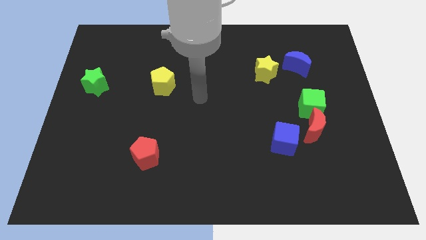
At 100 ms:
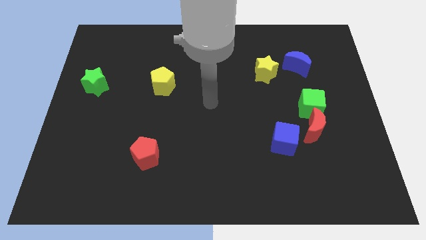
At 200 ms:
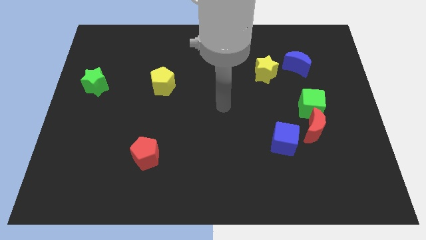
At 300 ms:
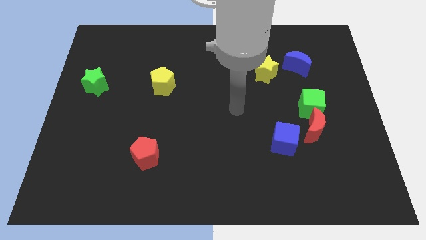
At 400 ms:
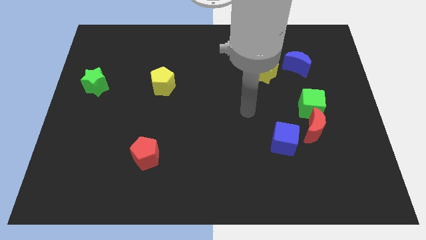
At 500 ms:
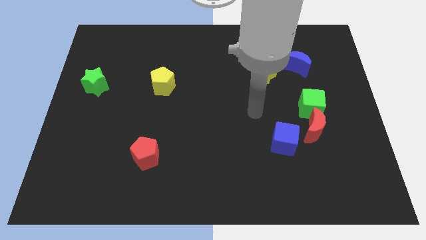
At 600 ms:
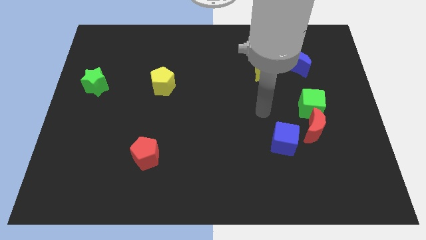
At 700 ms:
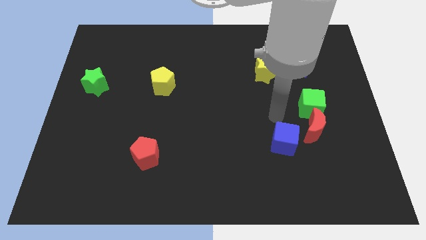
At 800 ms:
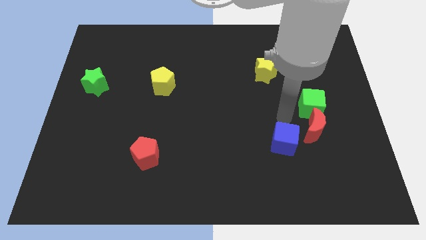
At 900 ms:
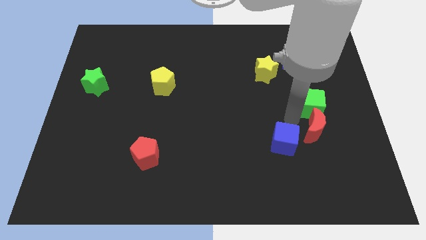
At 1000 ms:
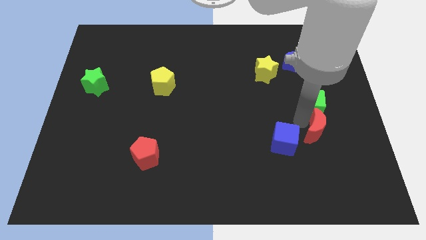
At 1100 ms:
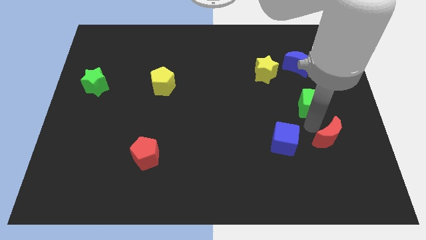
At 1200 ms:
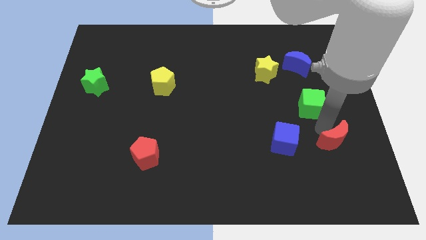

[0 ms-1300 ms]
move the green cube away from the red moon

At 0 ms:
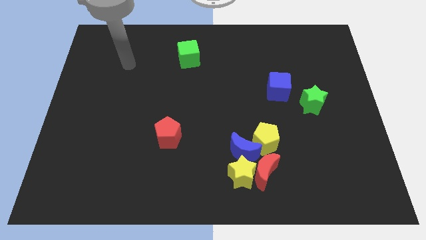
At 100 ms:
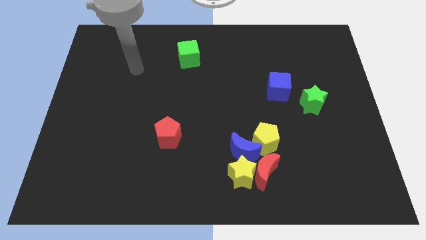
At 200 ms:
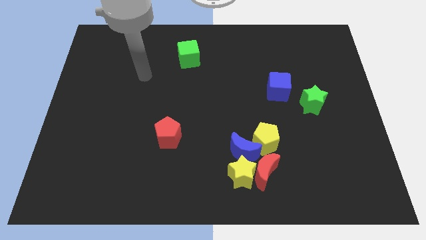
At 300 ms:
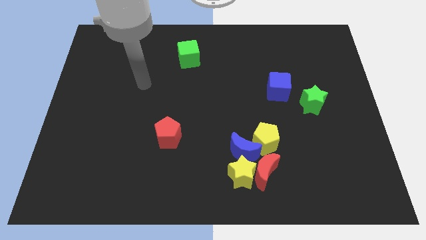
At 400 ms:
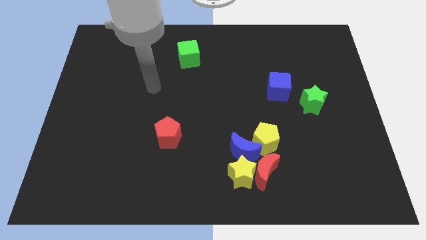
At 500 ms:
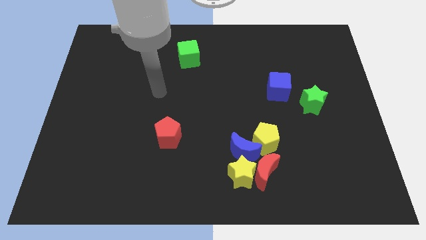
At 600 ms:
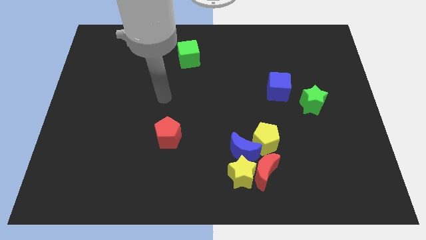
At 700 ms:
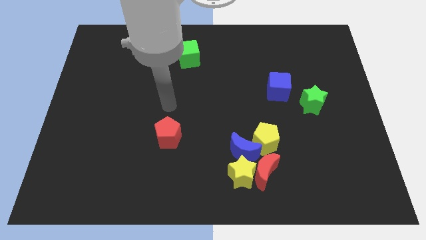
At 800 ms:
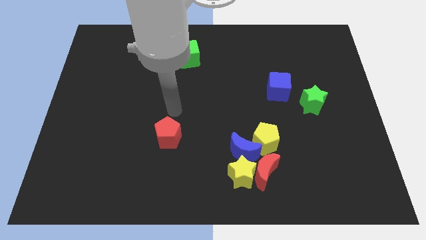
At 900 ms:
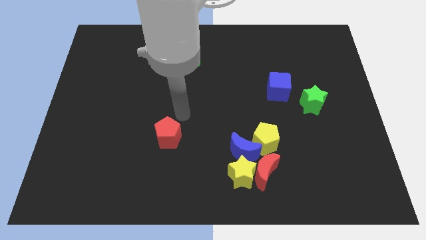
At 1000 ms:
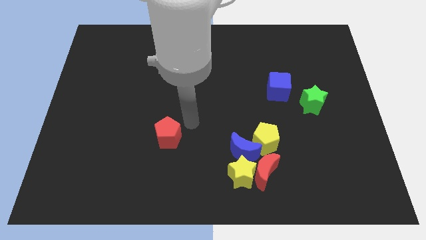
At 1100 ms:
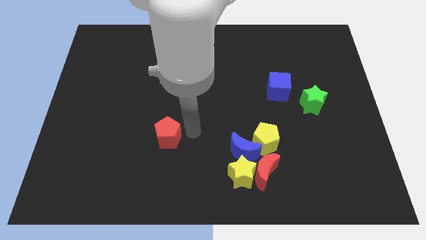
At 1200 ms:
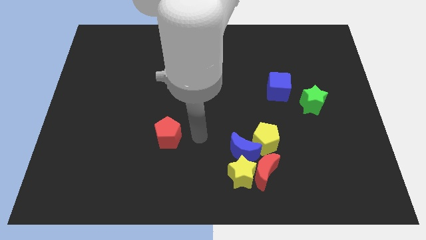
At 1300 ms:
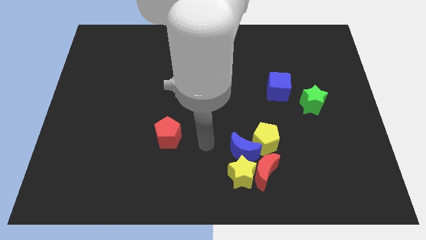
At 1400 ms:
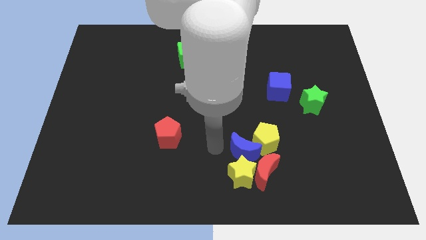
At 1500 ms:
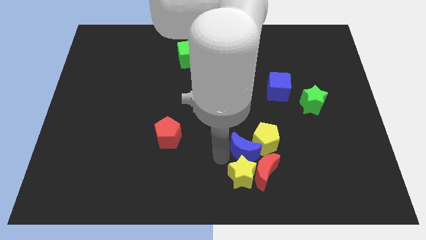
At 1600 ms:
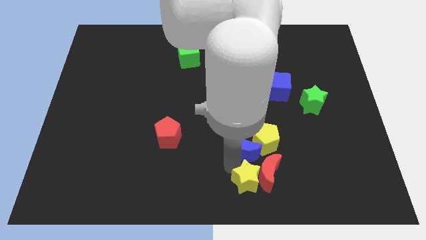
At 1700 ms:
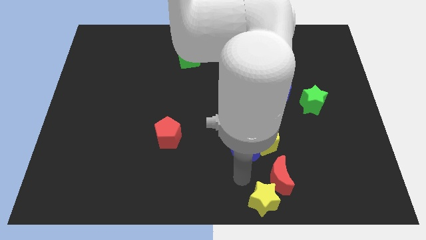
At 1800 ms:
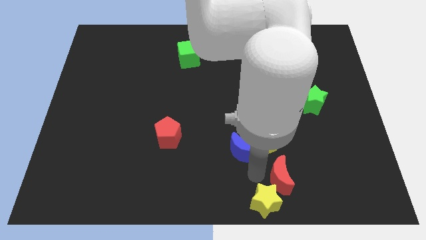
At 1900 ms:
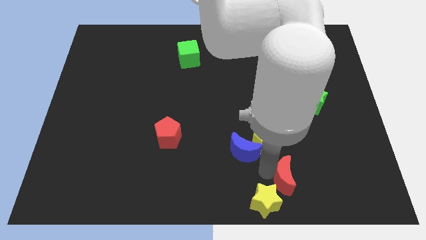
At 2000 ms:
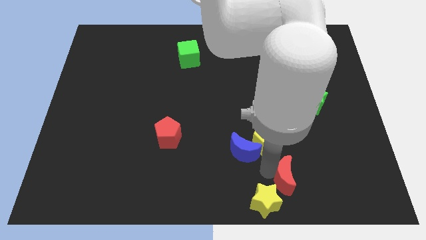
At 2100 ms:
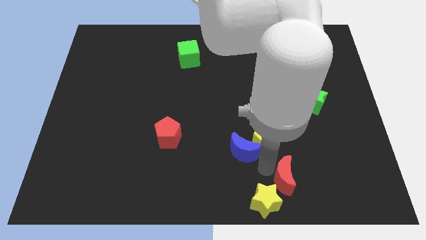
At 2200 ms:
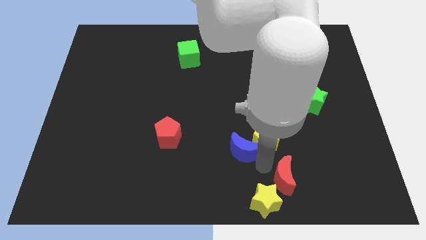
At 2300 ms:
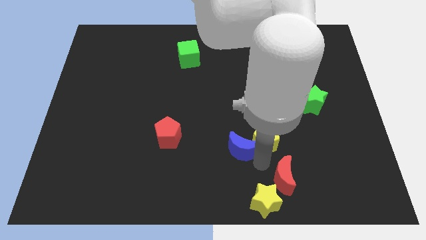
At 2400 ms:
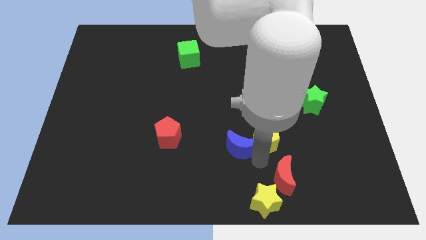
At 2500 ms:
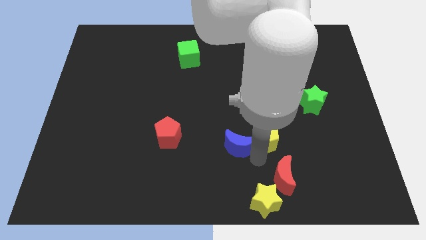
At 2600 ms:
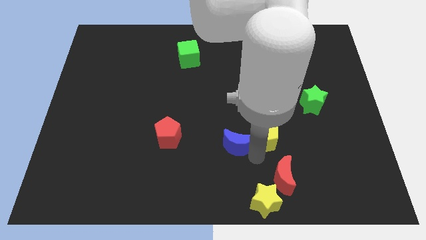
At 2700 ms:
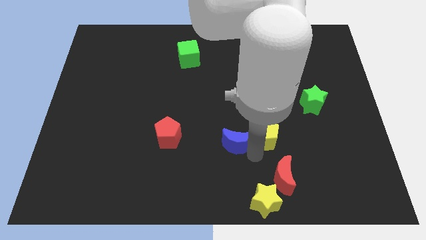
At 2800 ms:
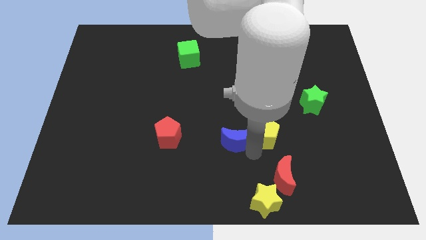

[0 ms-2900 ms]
move the blue moon away from the yellow pentagon, yellow star, and red moon

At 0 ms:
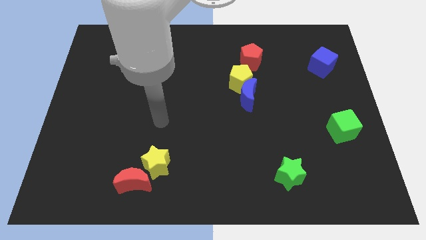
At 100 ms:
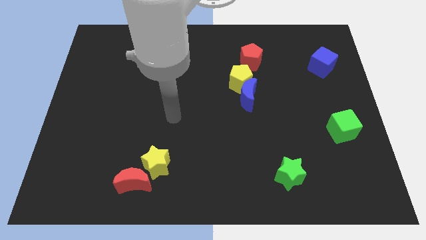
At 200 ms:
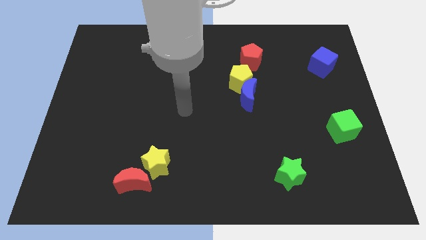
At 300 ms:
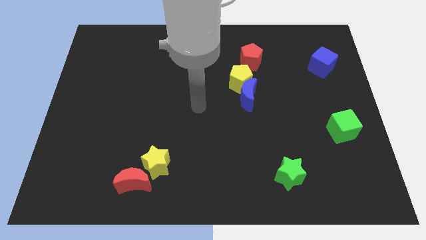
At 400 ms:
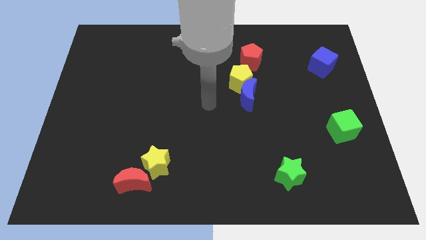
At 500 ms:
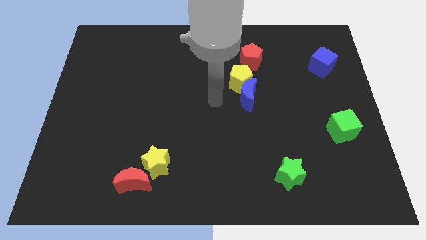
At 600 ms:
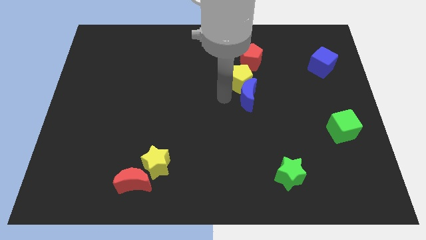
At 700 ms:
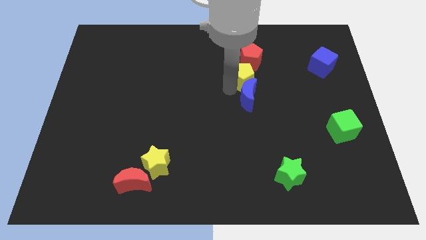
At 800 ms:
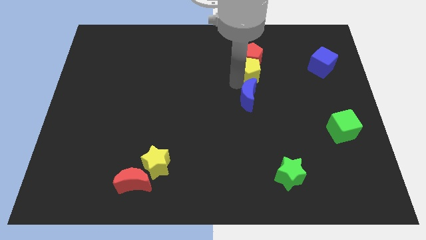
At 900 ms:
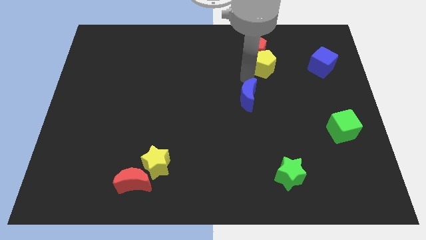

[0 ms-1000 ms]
pull the blue moon apart from the yellow pentagon

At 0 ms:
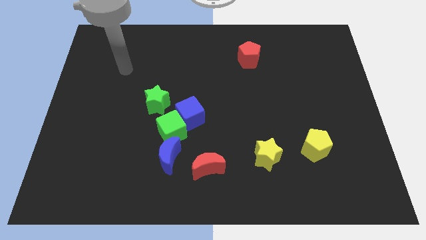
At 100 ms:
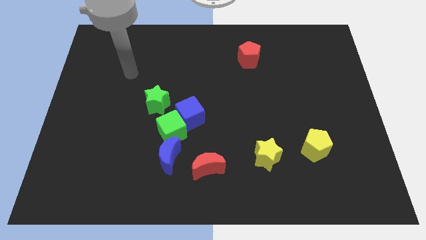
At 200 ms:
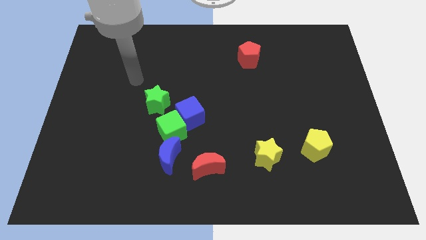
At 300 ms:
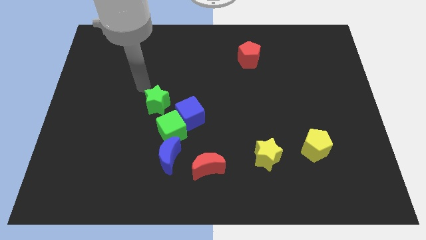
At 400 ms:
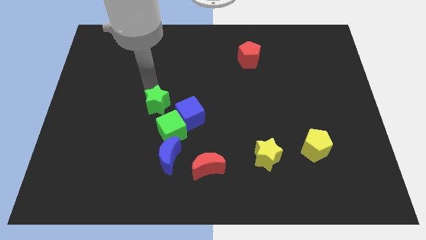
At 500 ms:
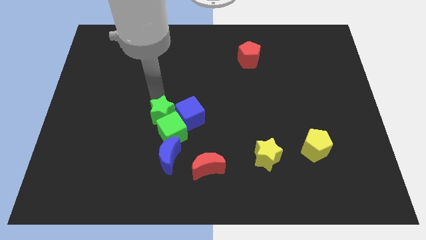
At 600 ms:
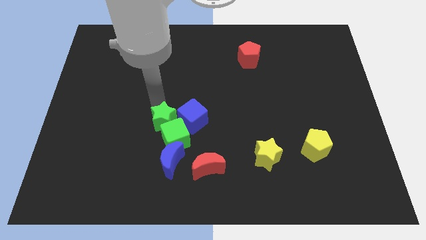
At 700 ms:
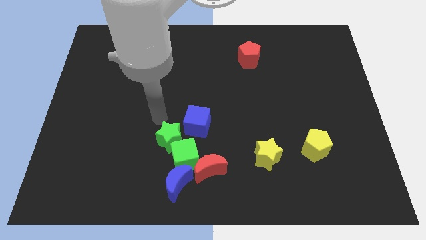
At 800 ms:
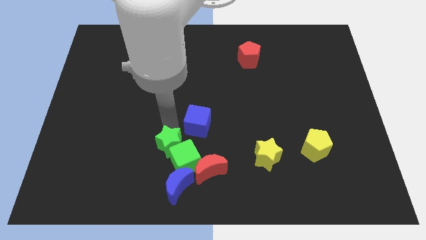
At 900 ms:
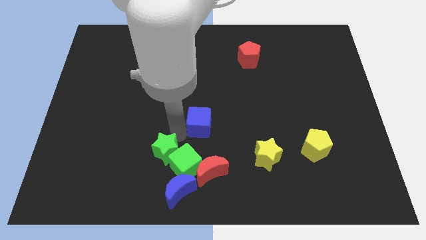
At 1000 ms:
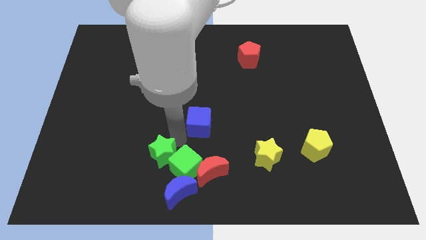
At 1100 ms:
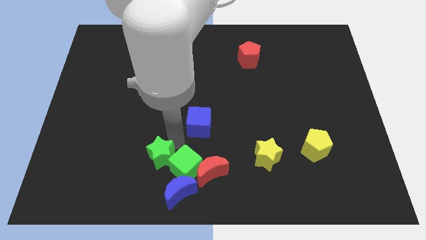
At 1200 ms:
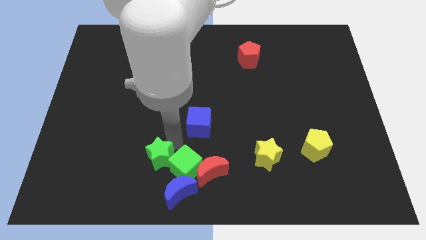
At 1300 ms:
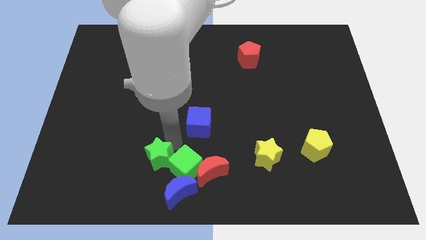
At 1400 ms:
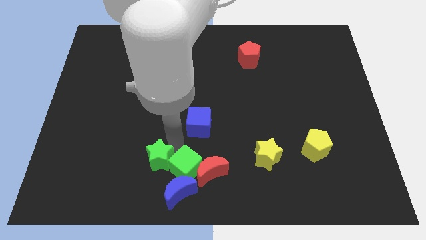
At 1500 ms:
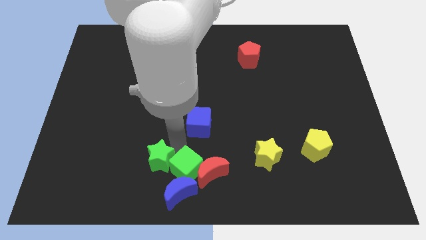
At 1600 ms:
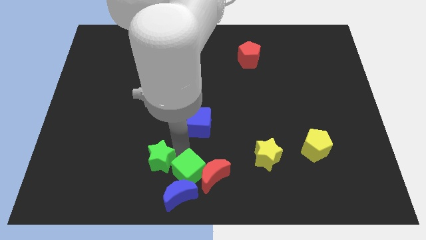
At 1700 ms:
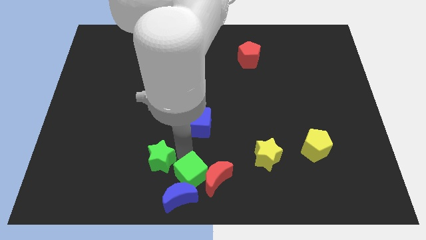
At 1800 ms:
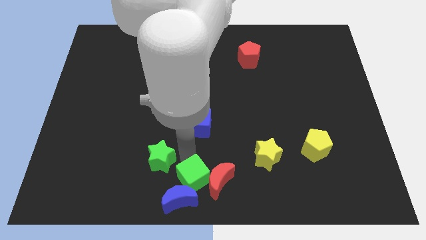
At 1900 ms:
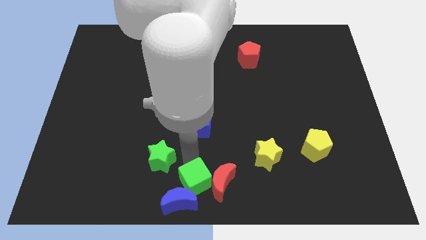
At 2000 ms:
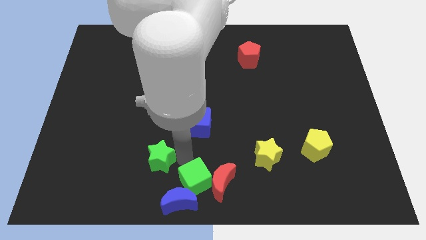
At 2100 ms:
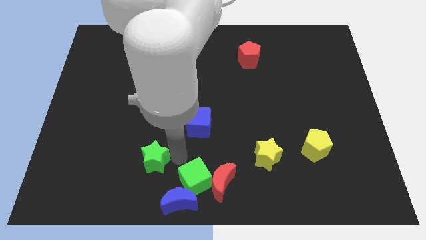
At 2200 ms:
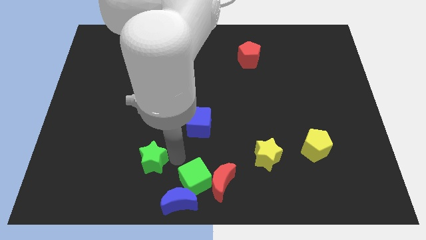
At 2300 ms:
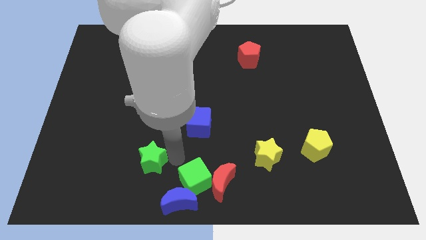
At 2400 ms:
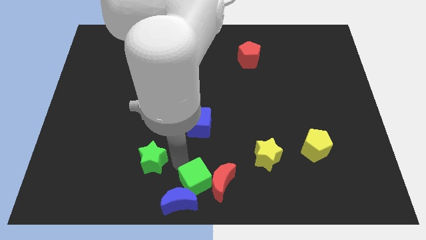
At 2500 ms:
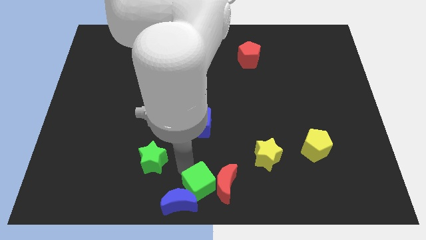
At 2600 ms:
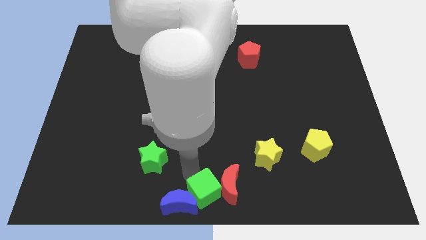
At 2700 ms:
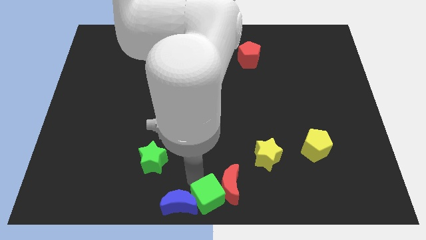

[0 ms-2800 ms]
separate the green cube from the group

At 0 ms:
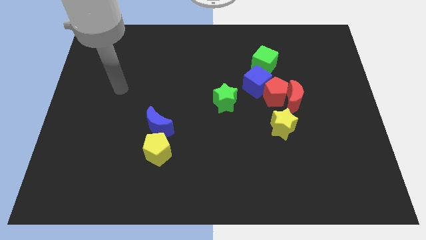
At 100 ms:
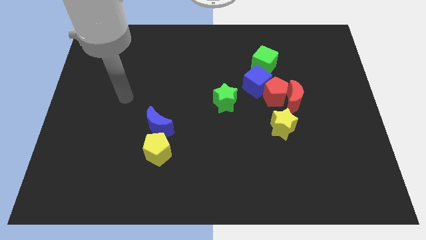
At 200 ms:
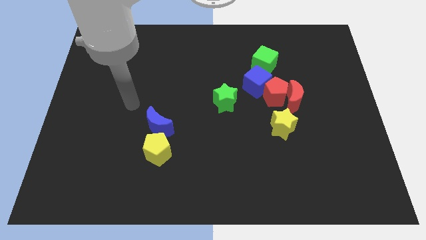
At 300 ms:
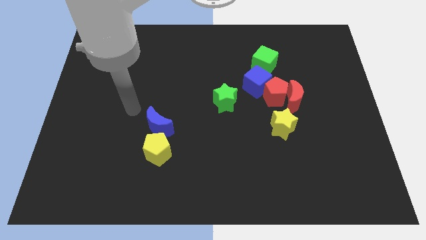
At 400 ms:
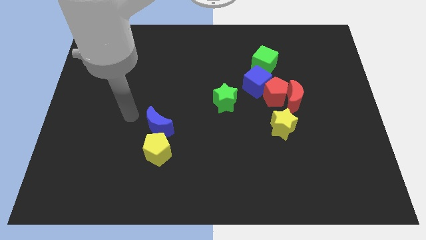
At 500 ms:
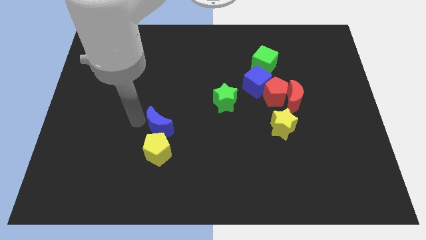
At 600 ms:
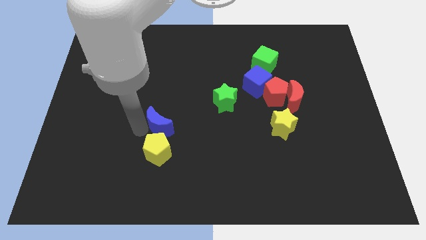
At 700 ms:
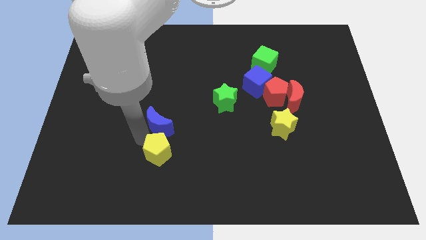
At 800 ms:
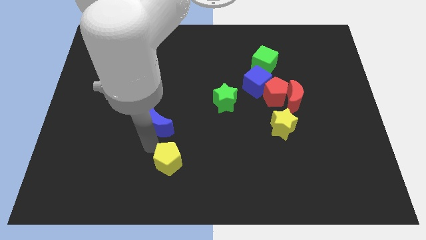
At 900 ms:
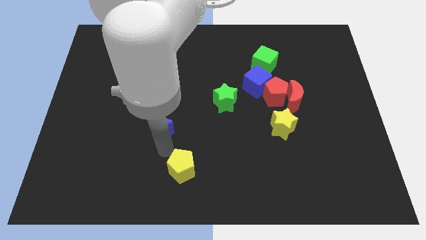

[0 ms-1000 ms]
move the blue moon away from the yellow pentagon

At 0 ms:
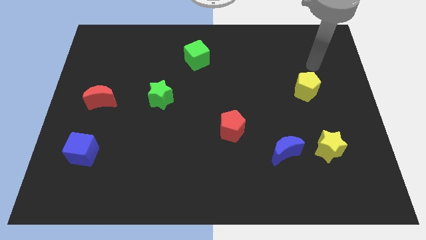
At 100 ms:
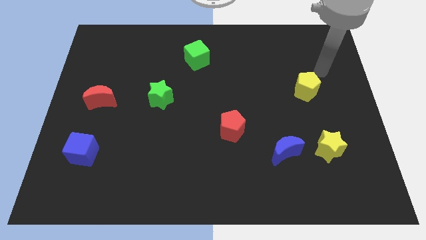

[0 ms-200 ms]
separate the blue moon from the yellow star

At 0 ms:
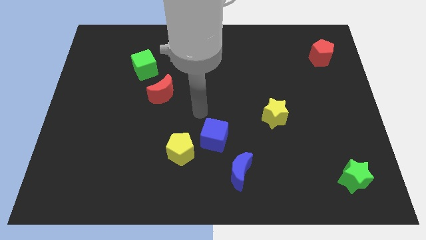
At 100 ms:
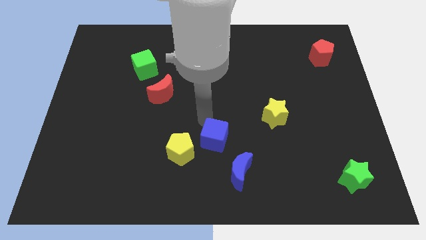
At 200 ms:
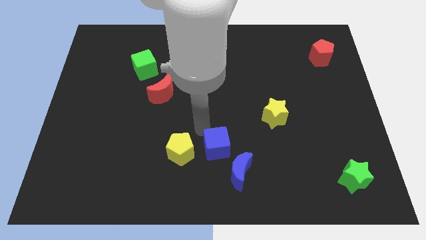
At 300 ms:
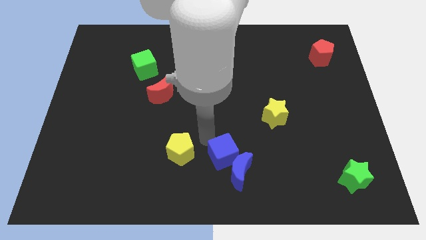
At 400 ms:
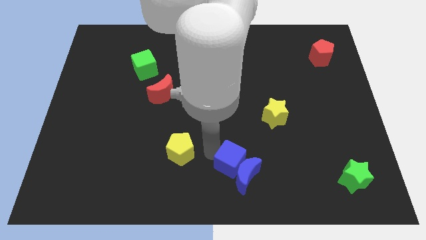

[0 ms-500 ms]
separate the yellow pentagon from the blue cube
